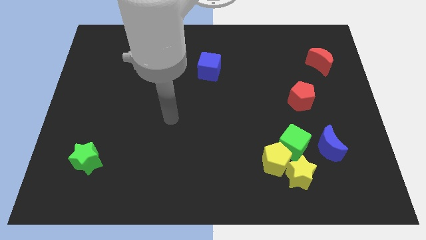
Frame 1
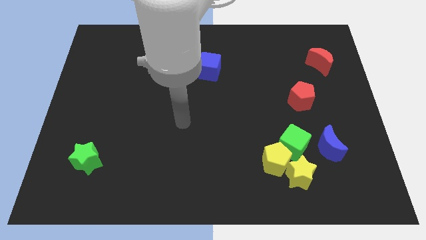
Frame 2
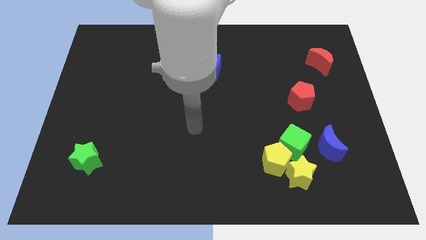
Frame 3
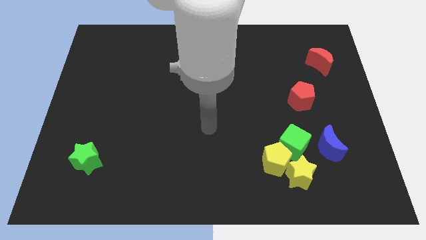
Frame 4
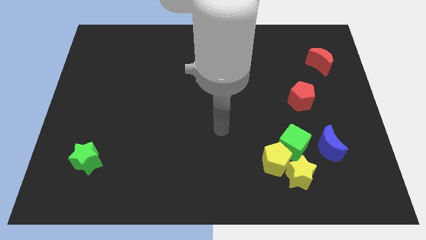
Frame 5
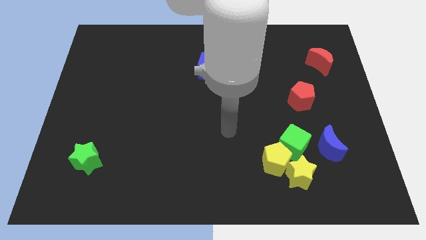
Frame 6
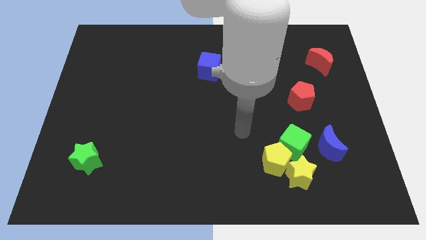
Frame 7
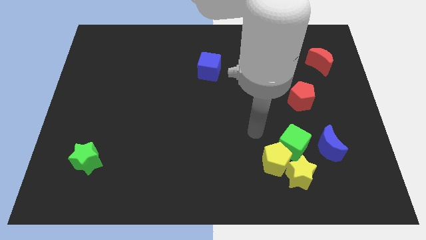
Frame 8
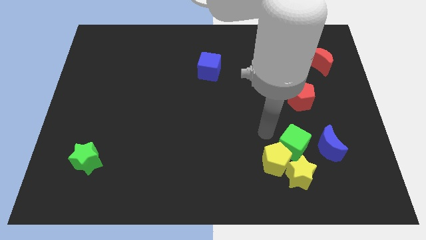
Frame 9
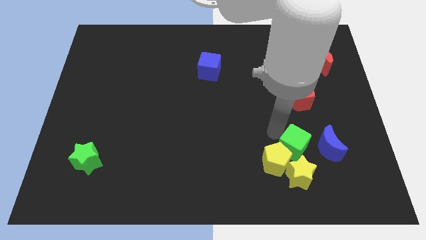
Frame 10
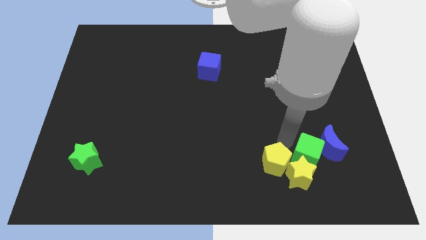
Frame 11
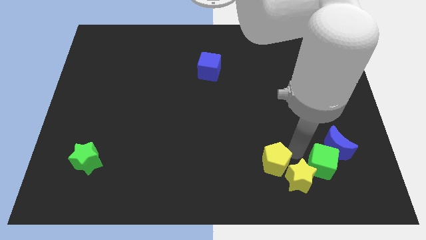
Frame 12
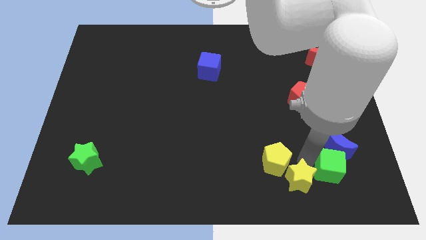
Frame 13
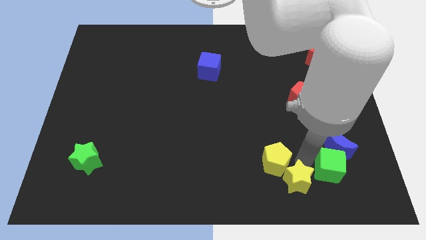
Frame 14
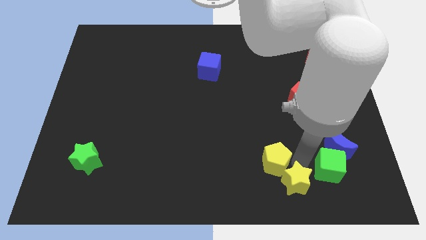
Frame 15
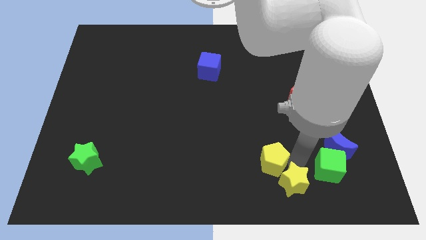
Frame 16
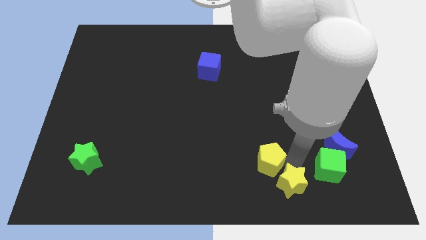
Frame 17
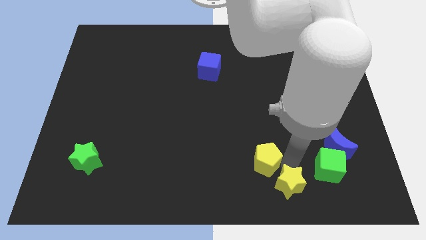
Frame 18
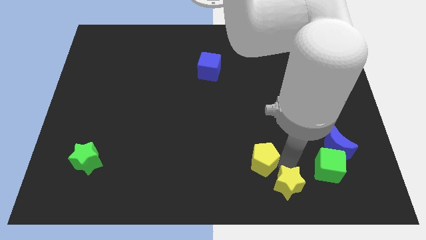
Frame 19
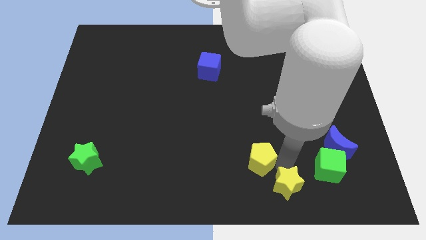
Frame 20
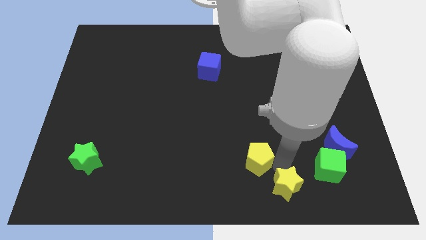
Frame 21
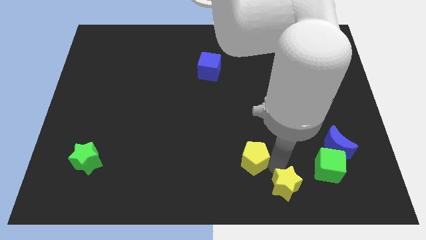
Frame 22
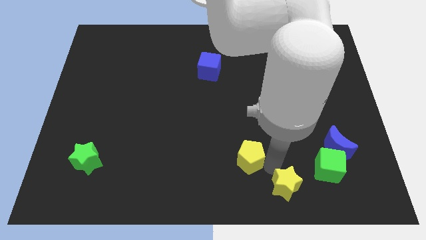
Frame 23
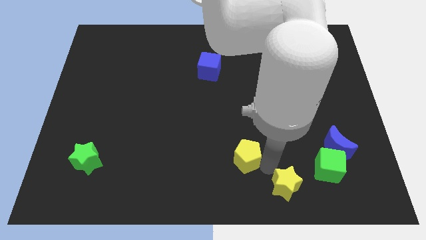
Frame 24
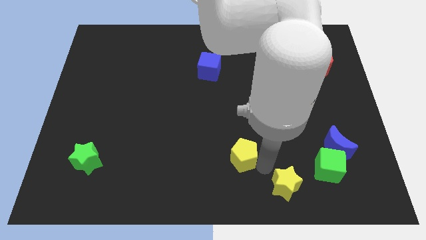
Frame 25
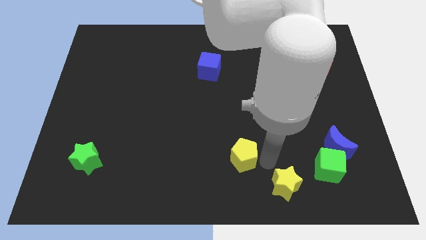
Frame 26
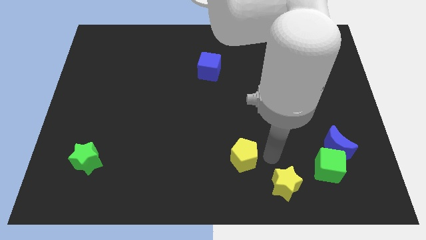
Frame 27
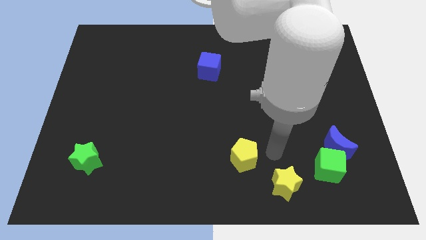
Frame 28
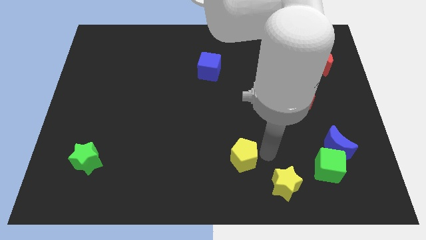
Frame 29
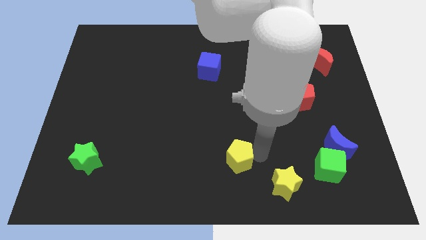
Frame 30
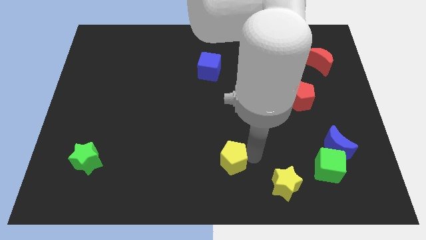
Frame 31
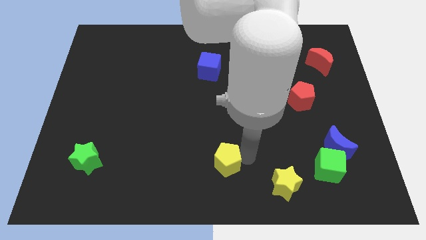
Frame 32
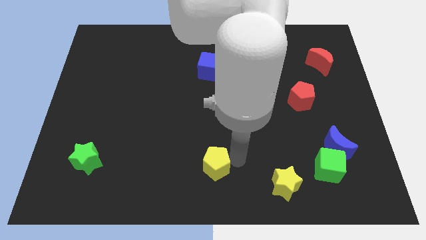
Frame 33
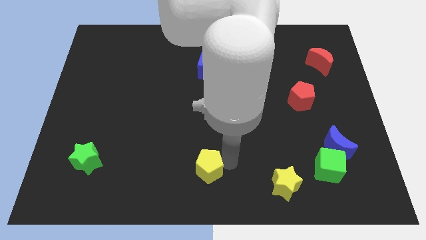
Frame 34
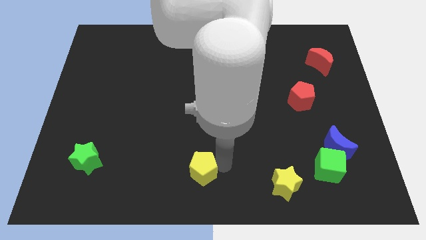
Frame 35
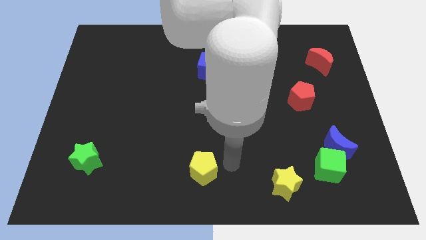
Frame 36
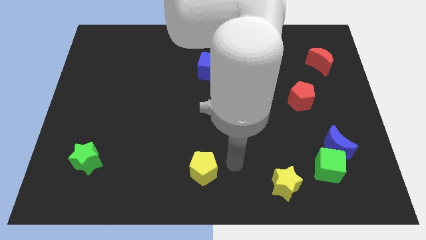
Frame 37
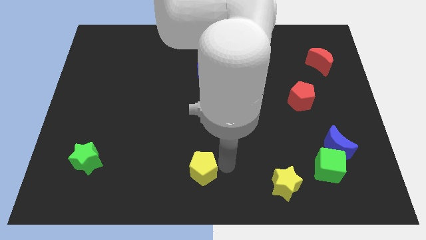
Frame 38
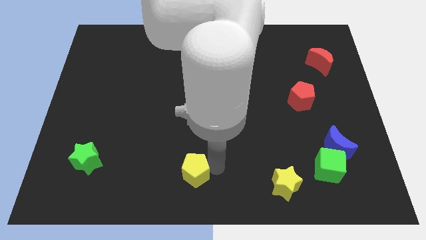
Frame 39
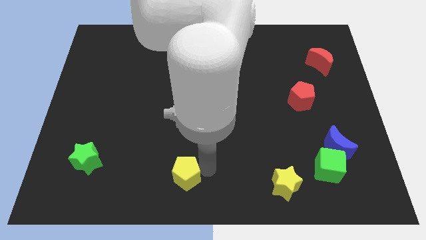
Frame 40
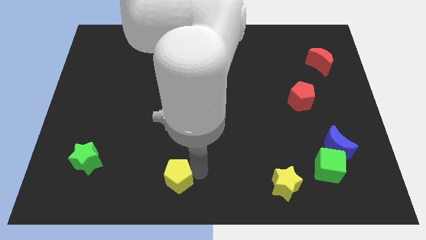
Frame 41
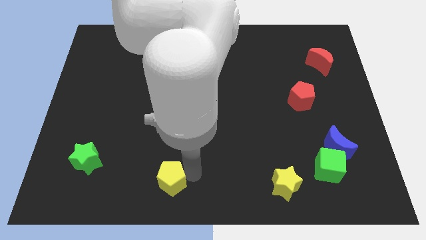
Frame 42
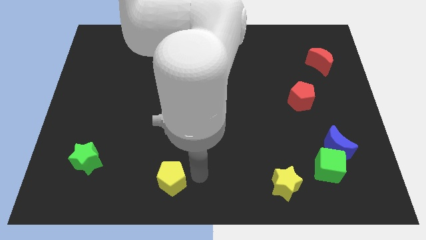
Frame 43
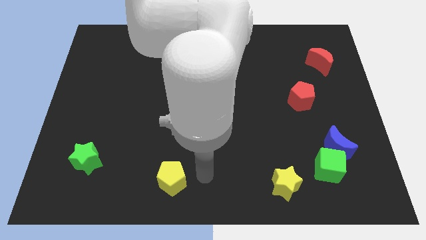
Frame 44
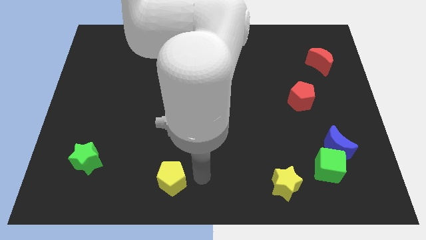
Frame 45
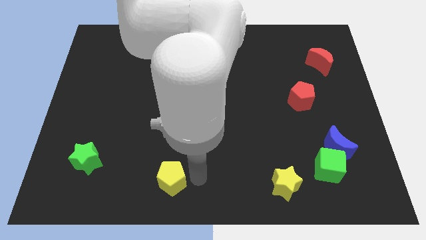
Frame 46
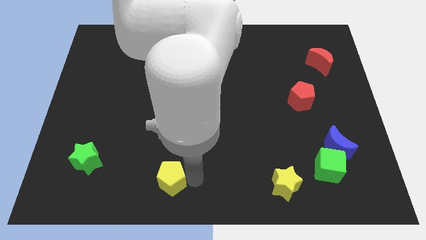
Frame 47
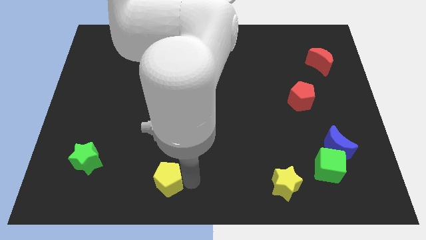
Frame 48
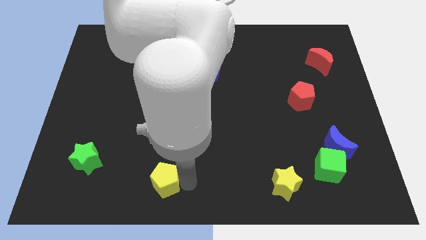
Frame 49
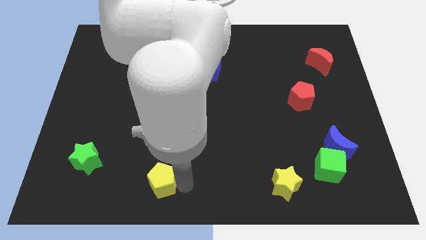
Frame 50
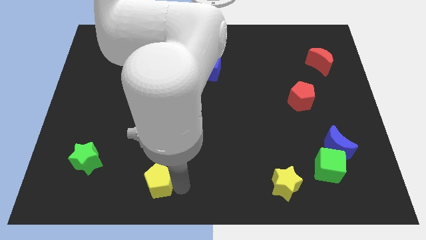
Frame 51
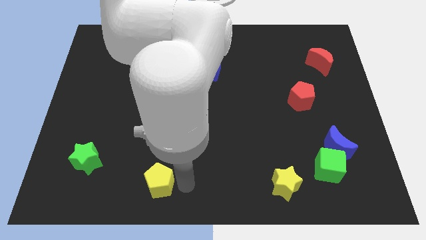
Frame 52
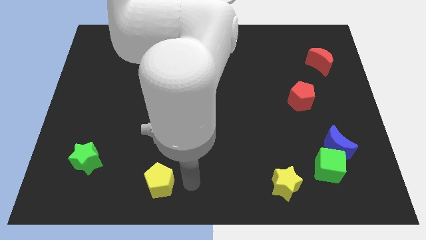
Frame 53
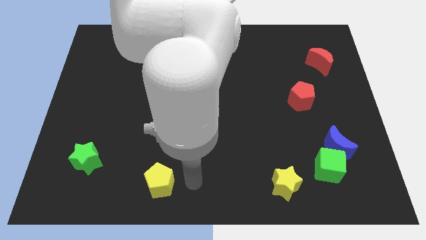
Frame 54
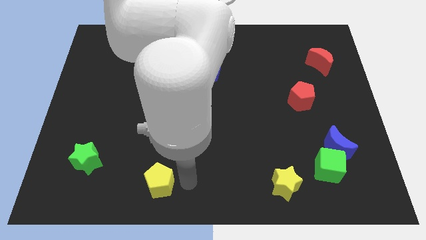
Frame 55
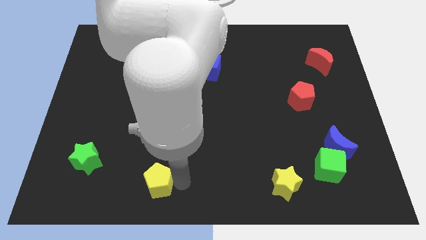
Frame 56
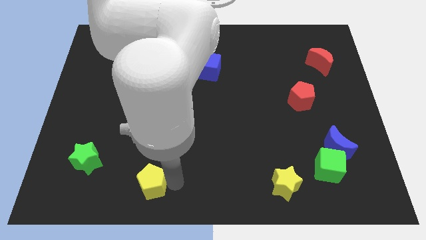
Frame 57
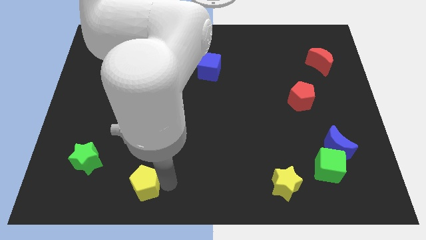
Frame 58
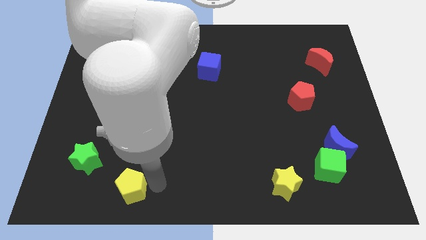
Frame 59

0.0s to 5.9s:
move the yellow pentagon to the bottom right of the green star

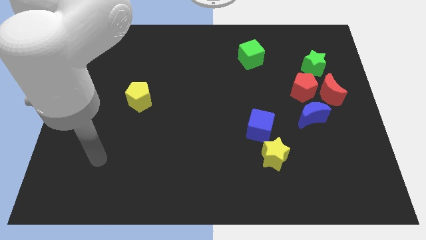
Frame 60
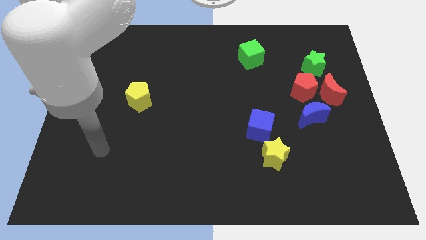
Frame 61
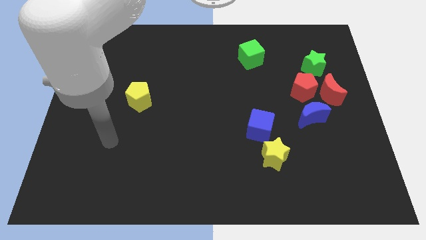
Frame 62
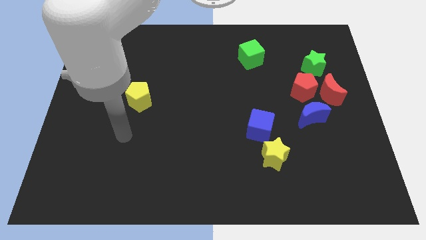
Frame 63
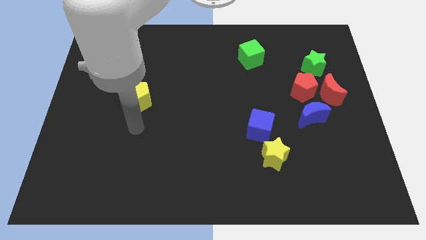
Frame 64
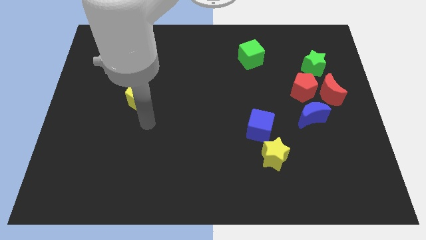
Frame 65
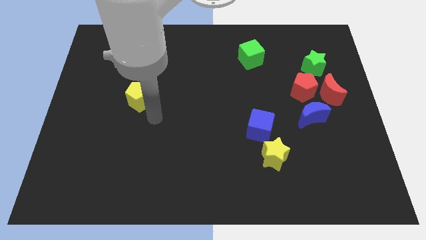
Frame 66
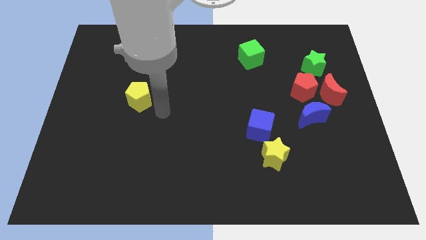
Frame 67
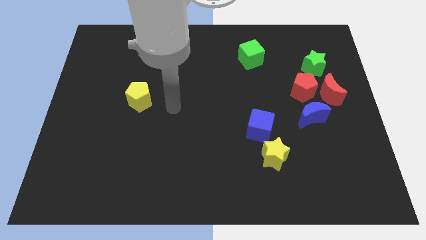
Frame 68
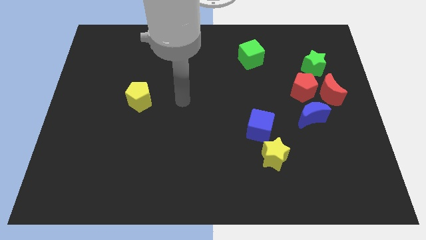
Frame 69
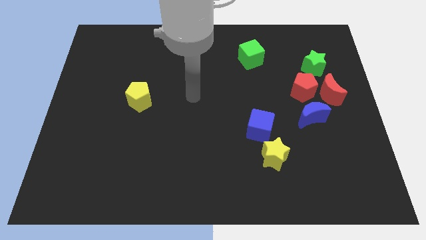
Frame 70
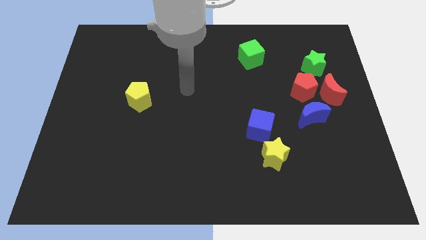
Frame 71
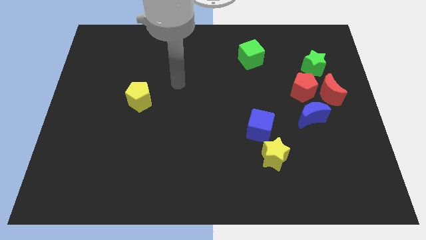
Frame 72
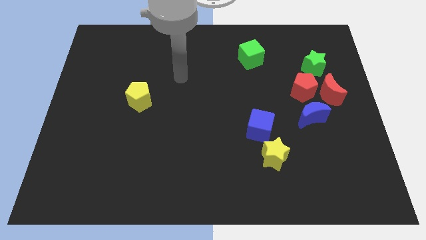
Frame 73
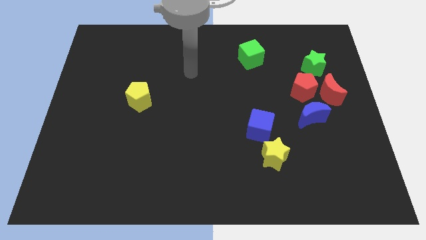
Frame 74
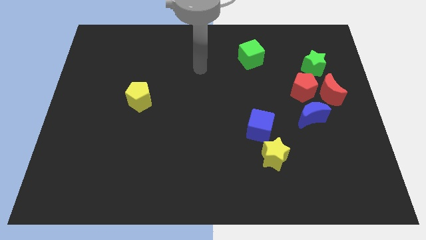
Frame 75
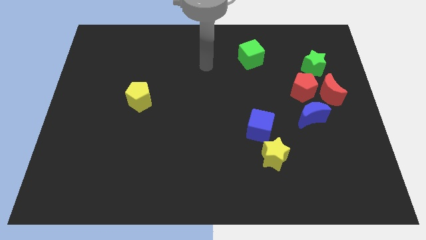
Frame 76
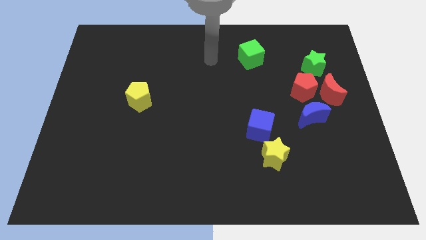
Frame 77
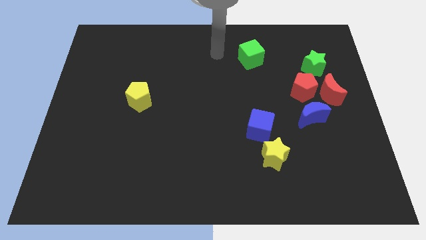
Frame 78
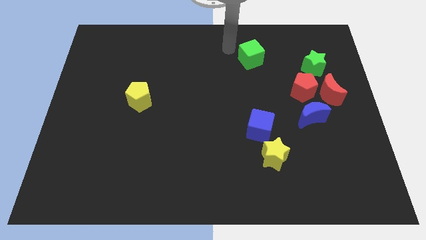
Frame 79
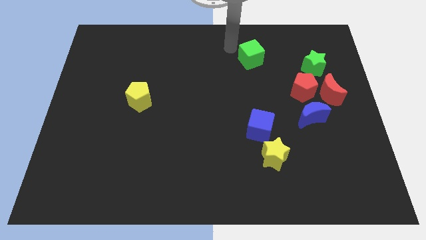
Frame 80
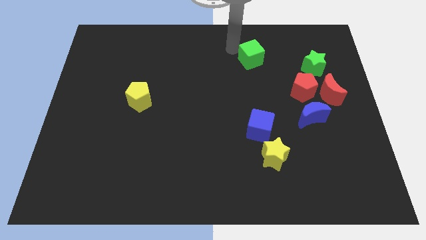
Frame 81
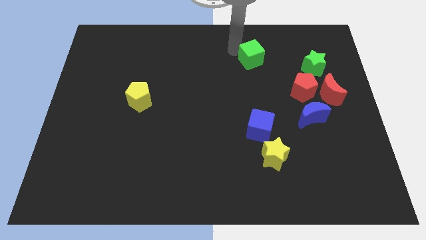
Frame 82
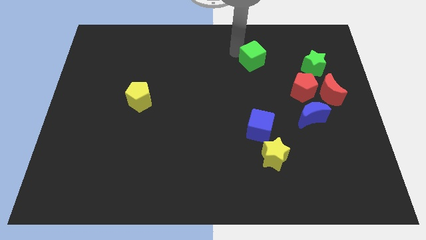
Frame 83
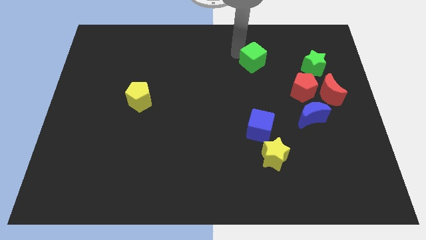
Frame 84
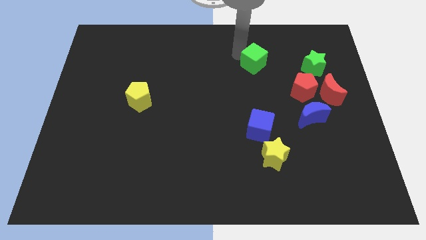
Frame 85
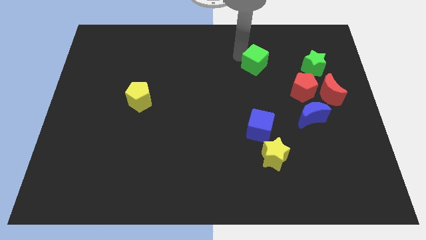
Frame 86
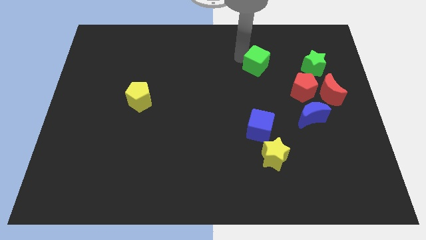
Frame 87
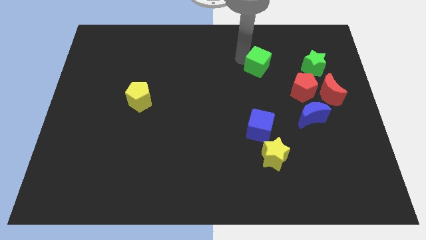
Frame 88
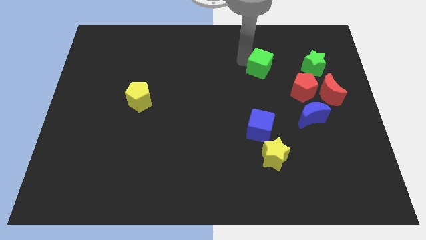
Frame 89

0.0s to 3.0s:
push the green cube to the top left side of the red pentagon
